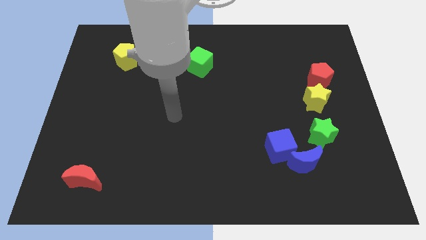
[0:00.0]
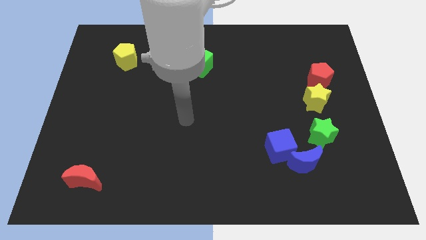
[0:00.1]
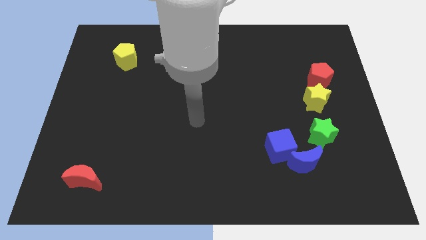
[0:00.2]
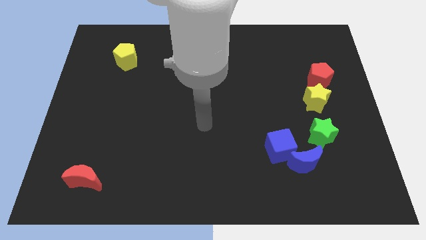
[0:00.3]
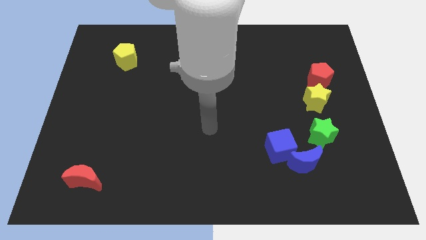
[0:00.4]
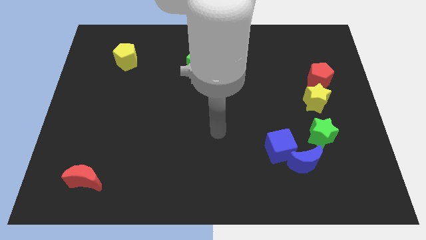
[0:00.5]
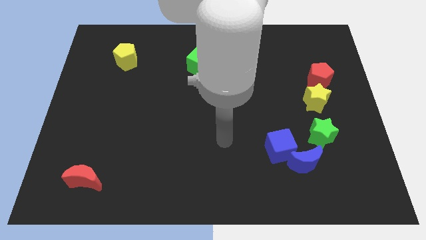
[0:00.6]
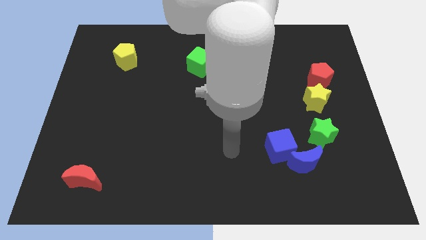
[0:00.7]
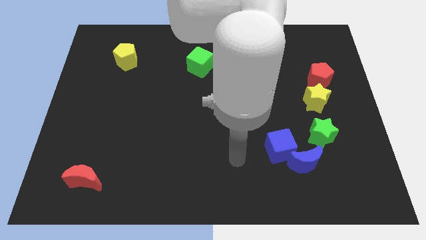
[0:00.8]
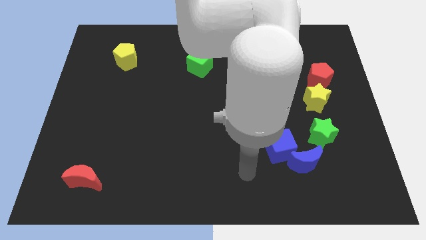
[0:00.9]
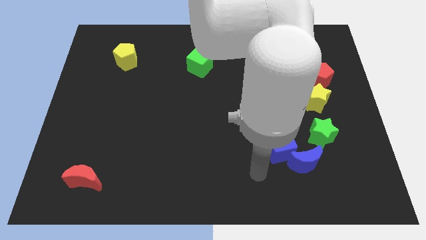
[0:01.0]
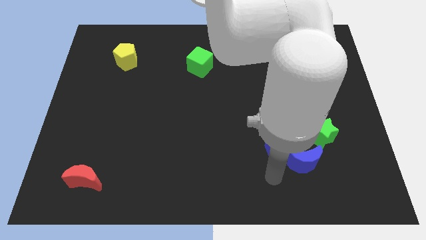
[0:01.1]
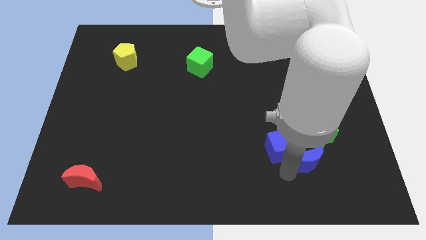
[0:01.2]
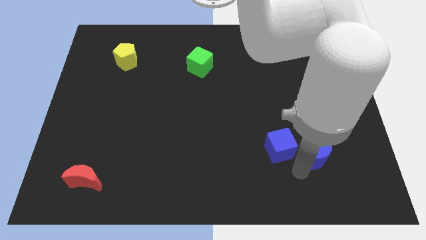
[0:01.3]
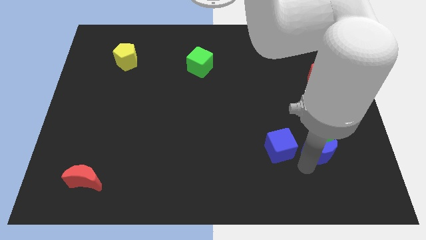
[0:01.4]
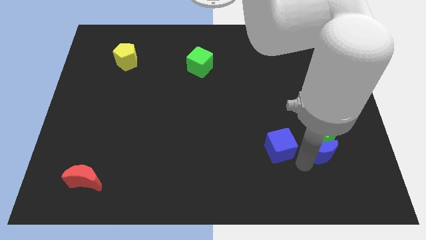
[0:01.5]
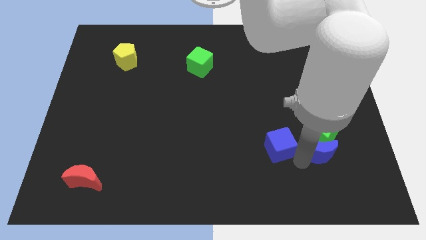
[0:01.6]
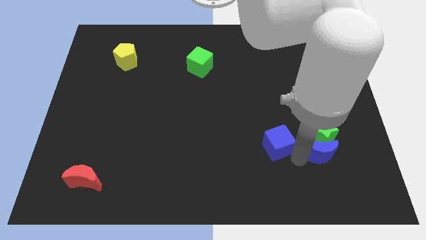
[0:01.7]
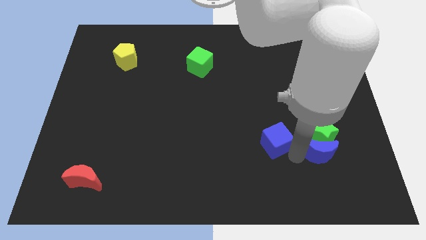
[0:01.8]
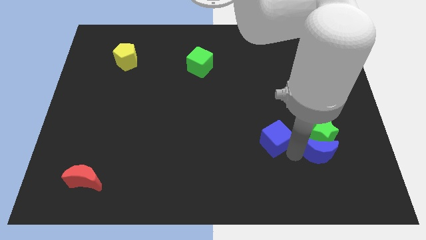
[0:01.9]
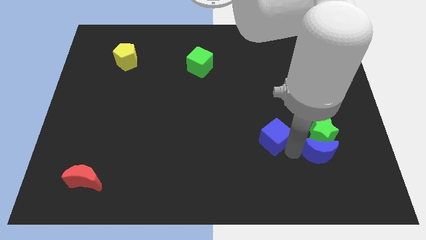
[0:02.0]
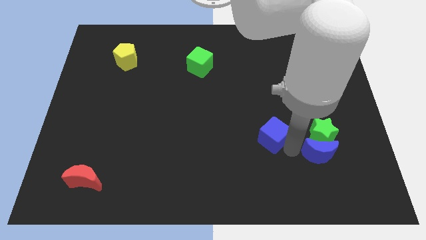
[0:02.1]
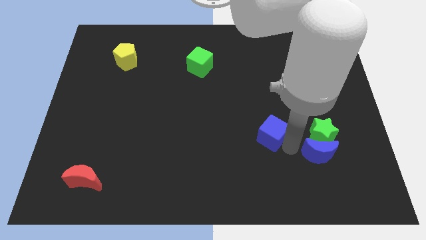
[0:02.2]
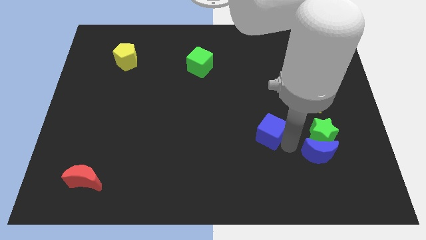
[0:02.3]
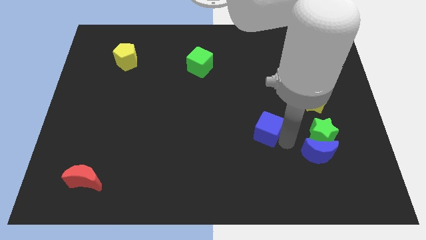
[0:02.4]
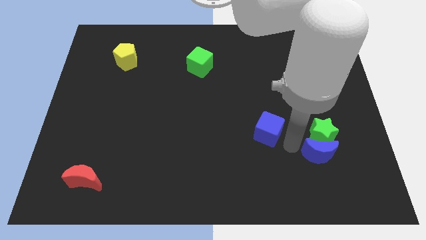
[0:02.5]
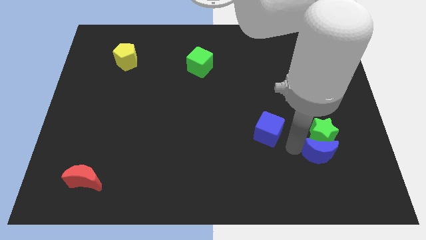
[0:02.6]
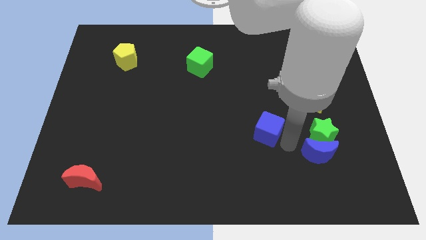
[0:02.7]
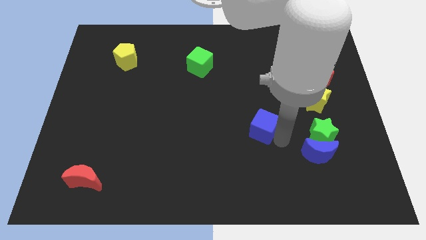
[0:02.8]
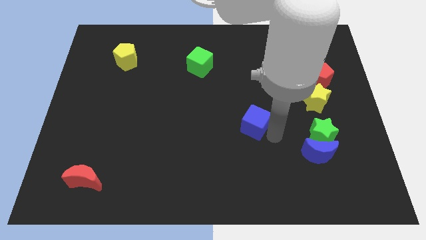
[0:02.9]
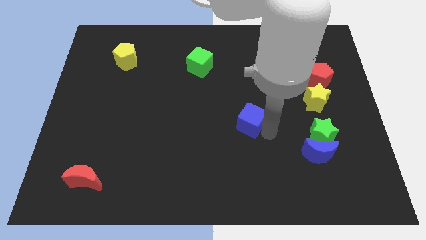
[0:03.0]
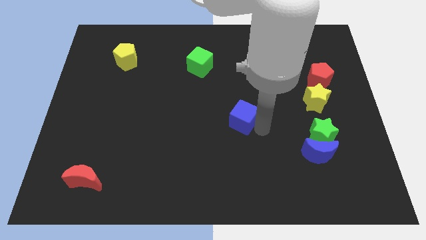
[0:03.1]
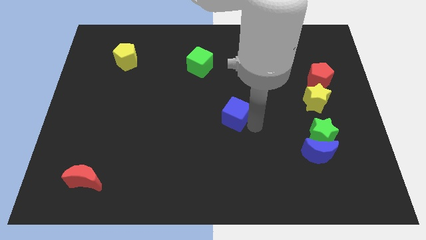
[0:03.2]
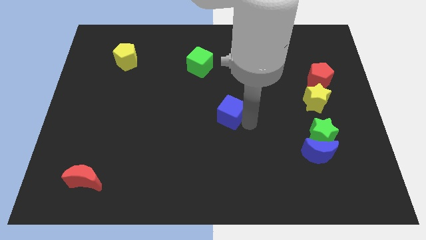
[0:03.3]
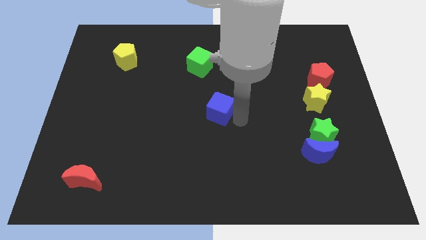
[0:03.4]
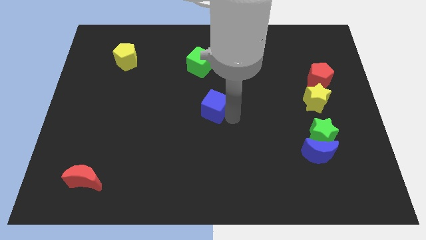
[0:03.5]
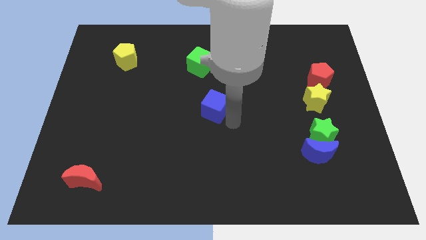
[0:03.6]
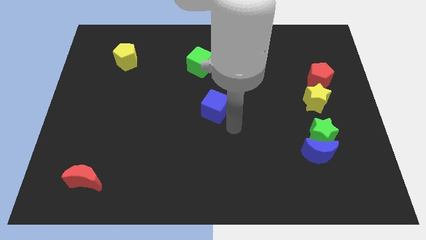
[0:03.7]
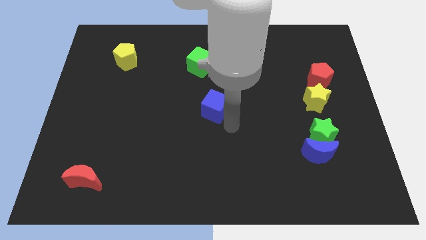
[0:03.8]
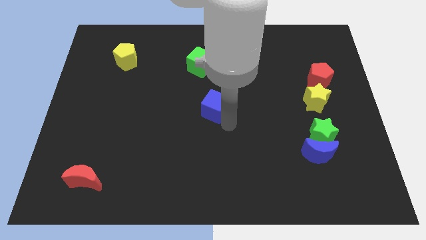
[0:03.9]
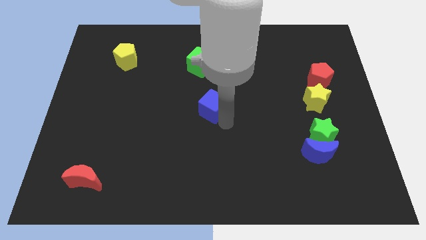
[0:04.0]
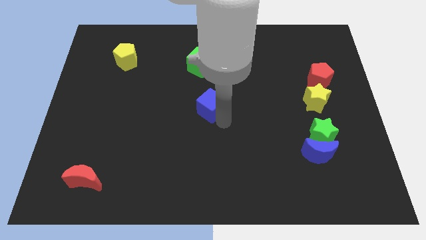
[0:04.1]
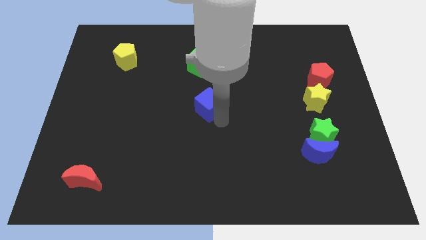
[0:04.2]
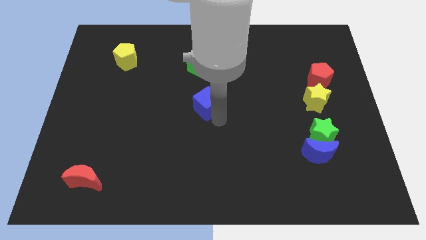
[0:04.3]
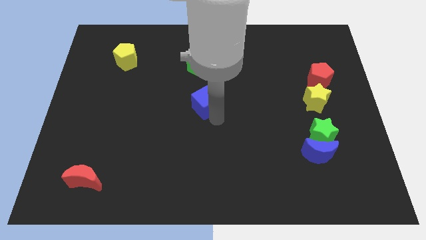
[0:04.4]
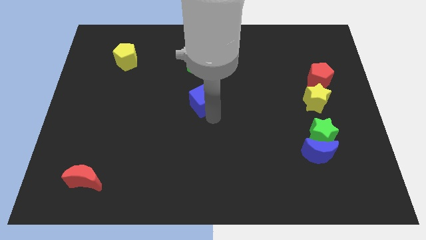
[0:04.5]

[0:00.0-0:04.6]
slide the blue cube upwards and to the left diagonally

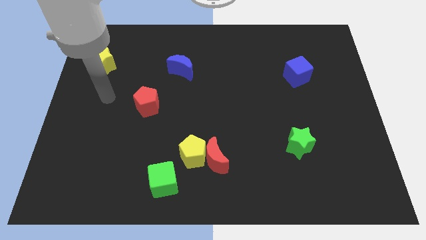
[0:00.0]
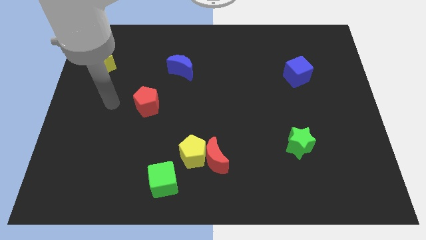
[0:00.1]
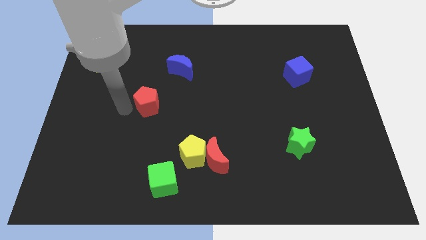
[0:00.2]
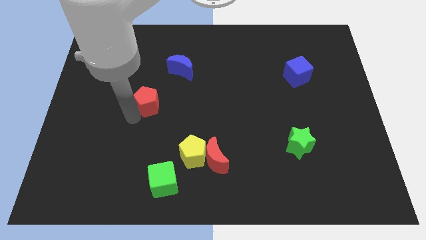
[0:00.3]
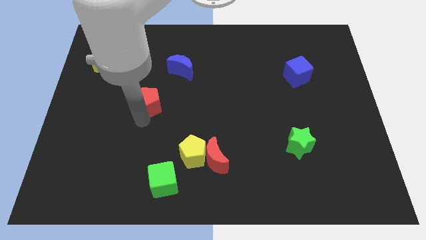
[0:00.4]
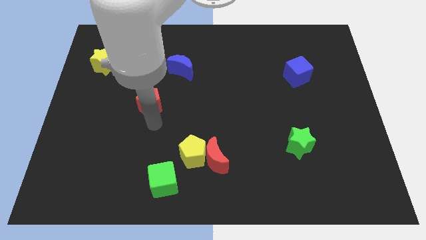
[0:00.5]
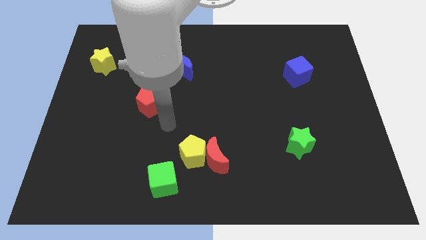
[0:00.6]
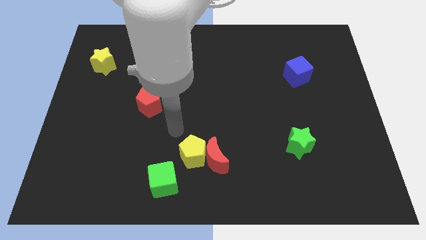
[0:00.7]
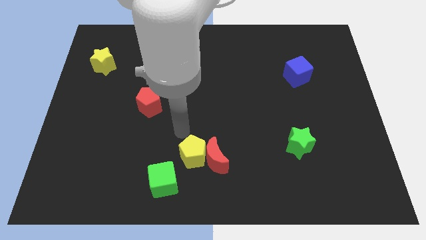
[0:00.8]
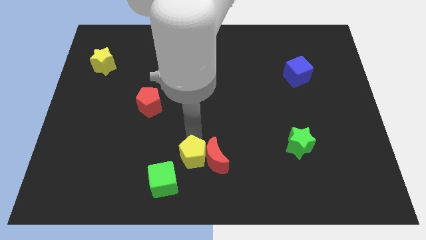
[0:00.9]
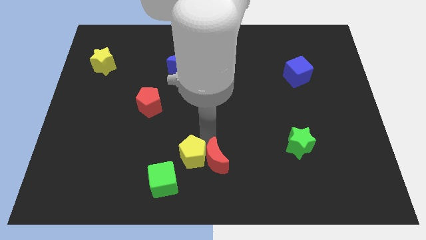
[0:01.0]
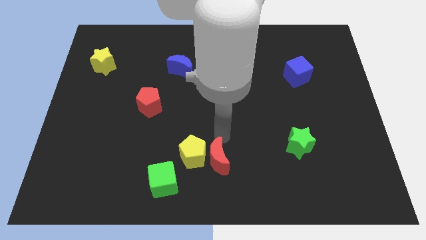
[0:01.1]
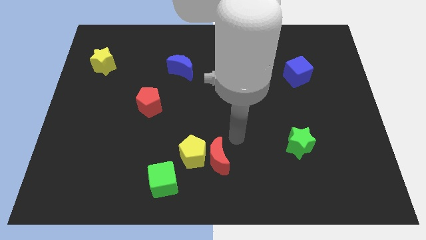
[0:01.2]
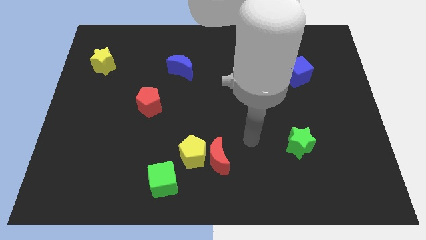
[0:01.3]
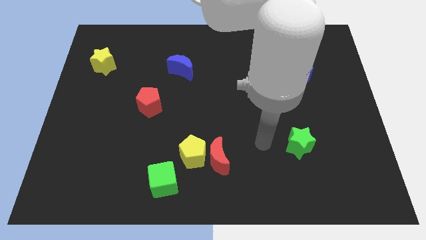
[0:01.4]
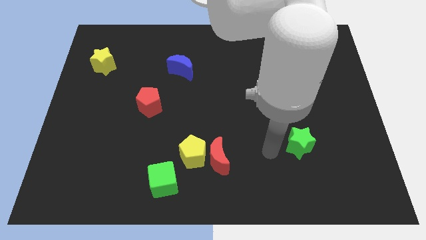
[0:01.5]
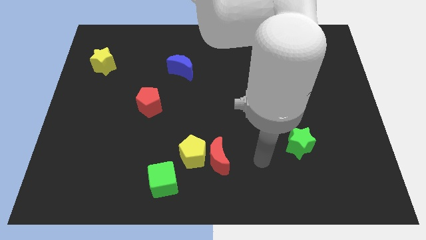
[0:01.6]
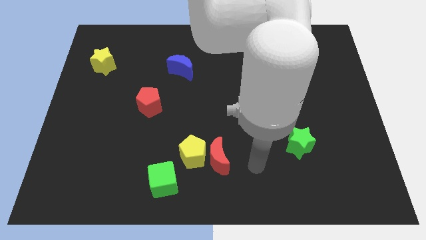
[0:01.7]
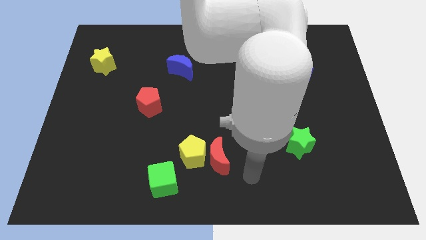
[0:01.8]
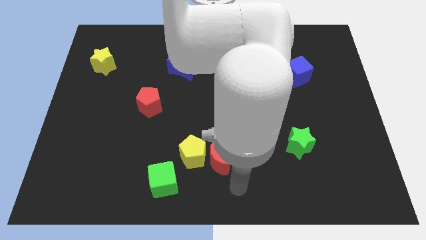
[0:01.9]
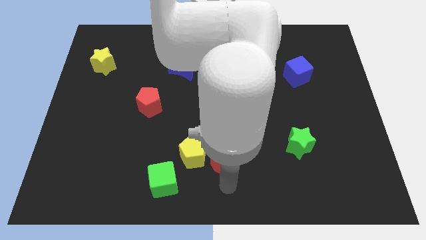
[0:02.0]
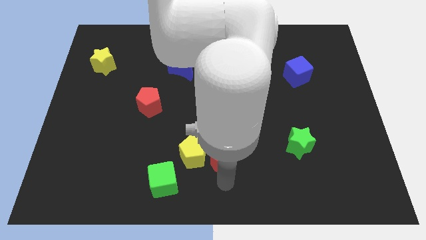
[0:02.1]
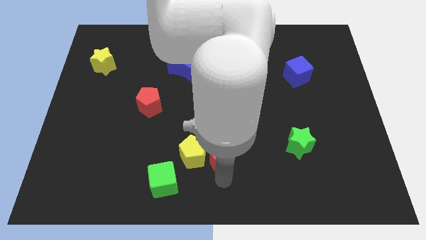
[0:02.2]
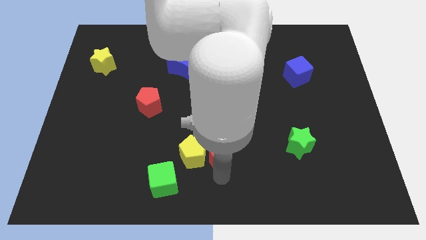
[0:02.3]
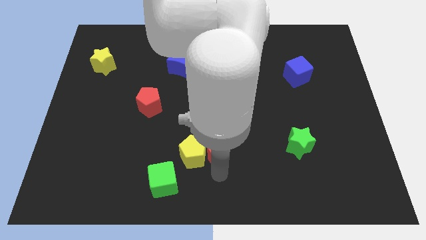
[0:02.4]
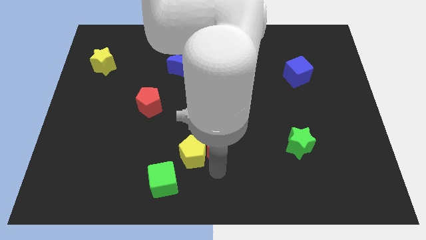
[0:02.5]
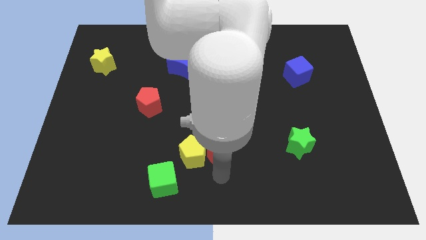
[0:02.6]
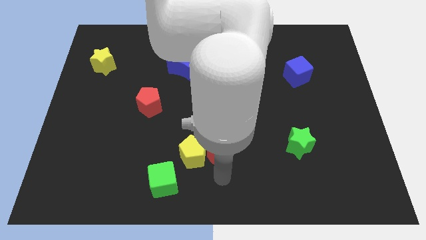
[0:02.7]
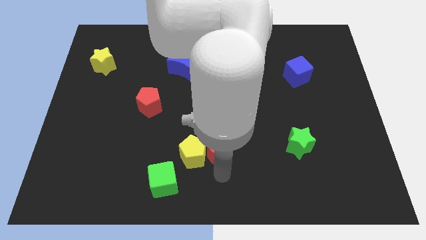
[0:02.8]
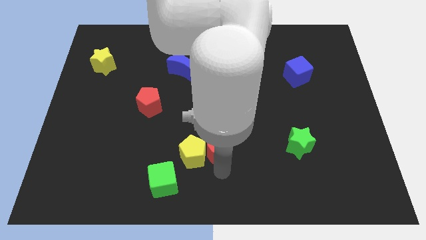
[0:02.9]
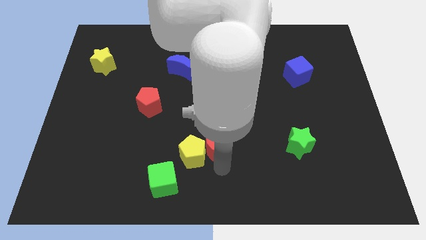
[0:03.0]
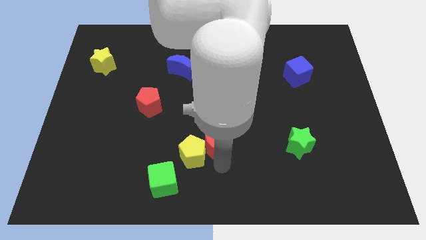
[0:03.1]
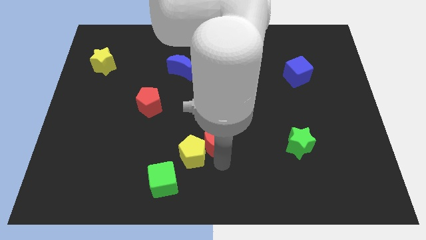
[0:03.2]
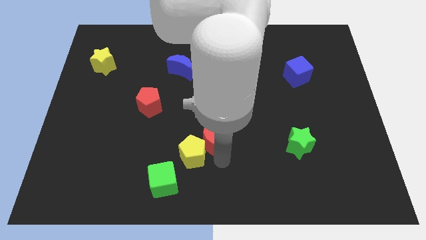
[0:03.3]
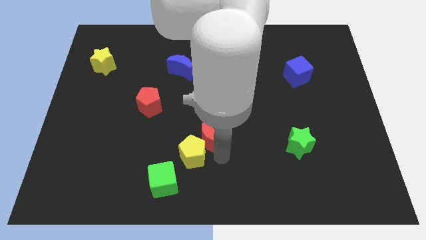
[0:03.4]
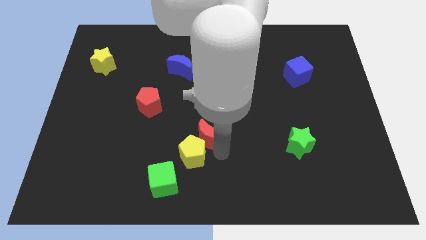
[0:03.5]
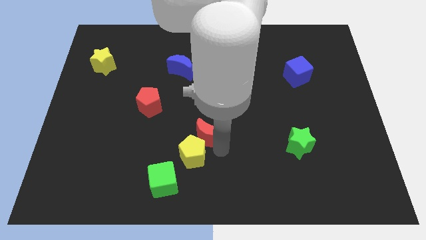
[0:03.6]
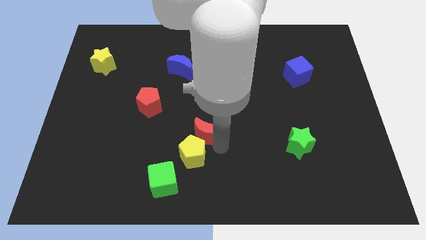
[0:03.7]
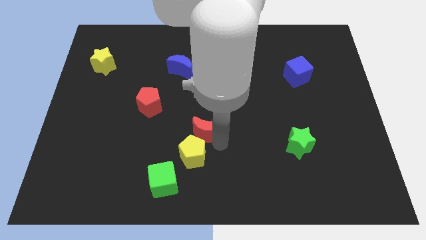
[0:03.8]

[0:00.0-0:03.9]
push the red moon a little up
